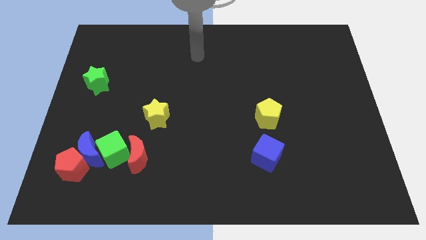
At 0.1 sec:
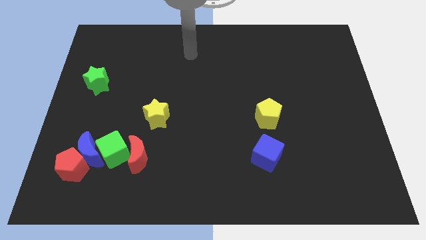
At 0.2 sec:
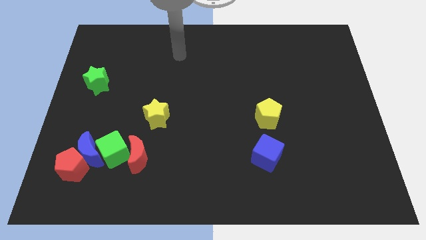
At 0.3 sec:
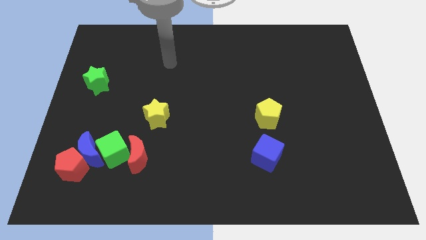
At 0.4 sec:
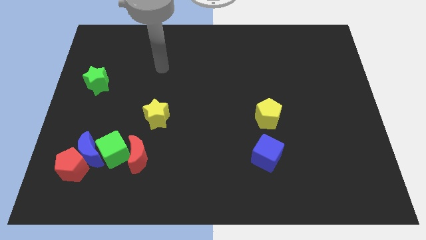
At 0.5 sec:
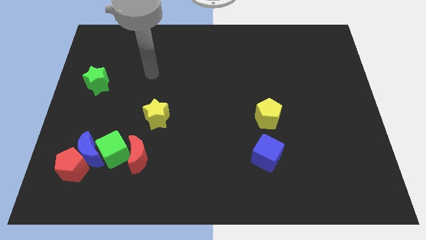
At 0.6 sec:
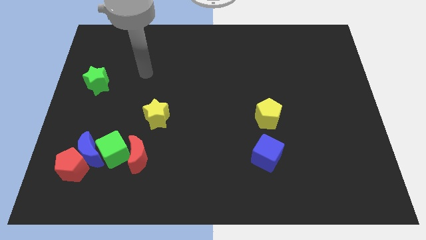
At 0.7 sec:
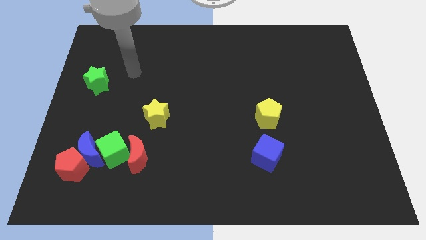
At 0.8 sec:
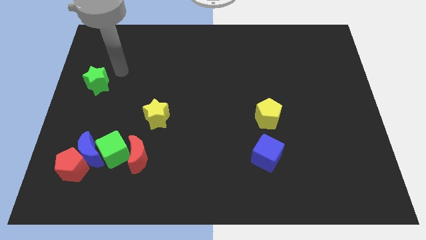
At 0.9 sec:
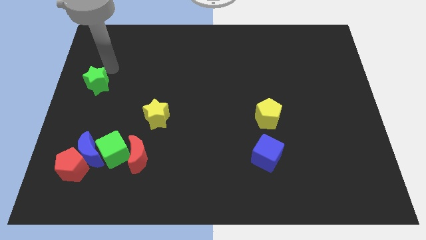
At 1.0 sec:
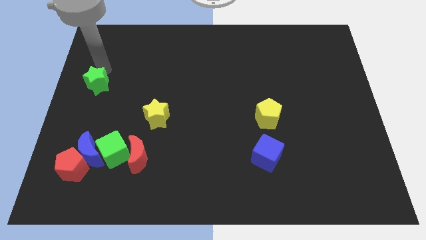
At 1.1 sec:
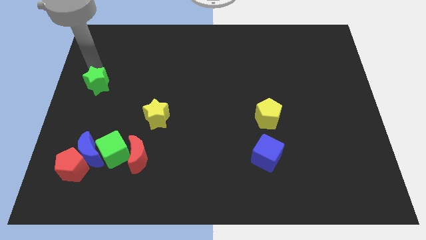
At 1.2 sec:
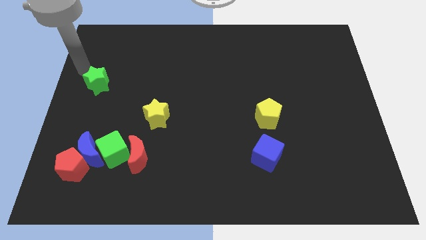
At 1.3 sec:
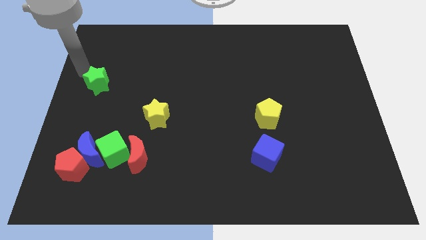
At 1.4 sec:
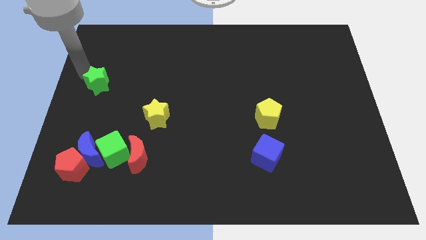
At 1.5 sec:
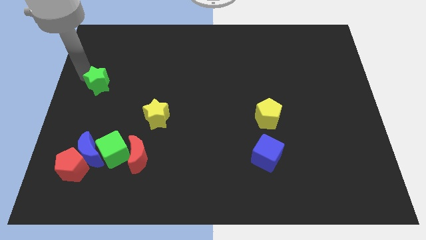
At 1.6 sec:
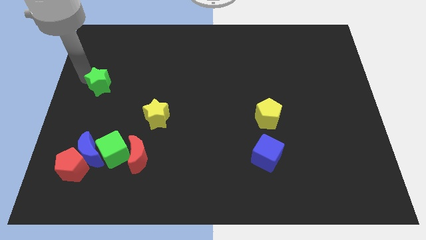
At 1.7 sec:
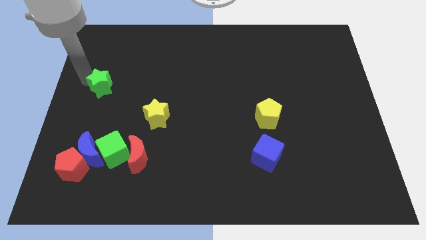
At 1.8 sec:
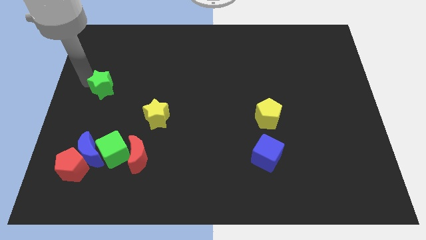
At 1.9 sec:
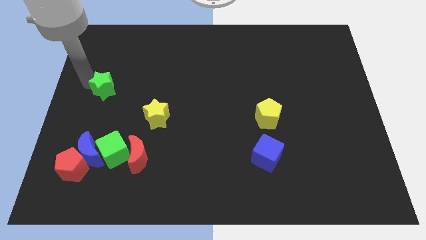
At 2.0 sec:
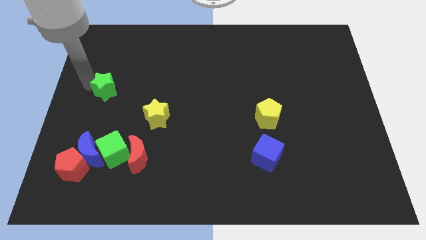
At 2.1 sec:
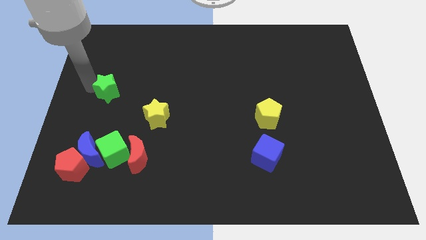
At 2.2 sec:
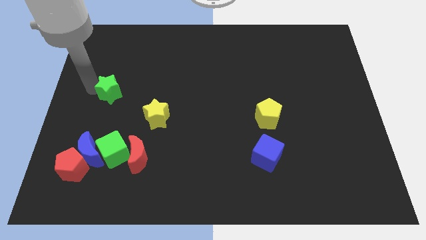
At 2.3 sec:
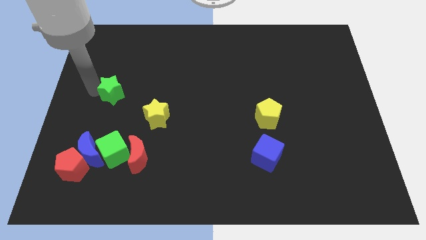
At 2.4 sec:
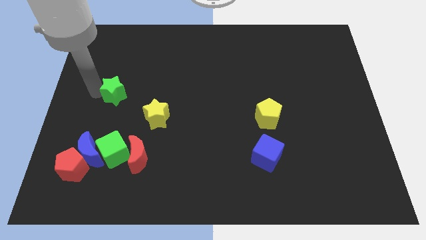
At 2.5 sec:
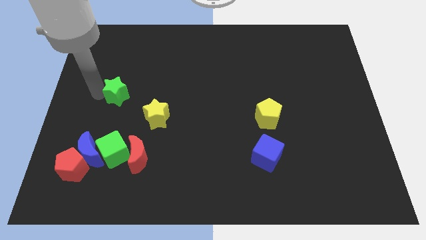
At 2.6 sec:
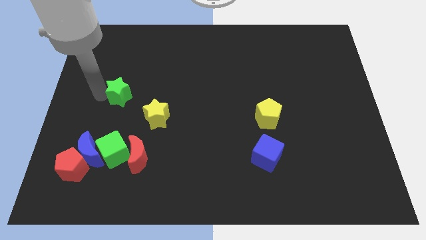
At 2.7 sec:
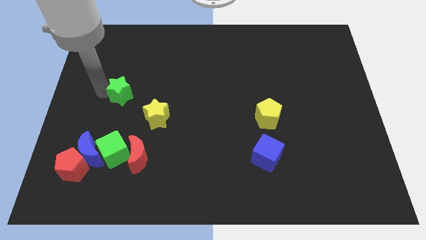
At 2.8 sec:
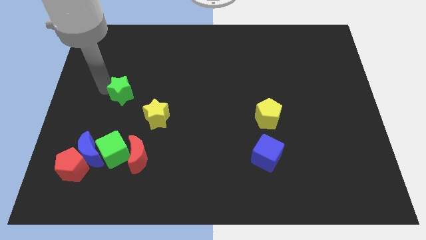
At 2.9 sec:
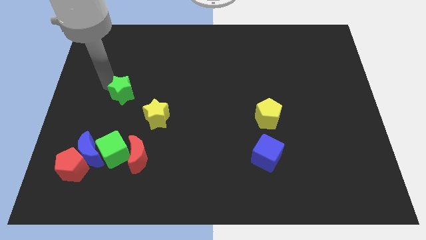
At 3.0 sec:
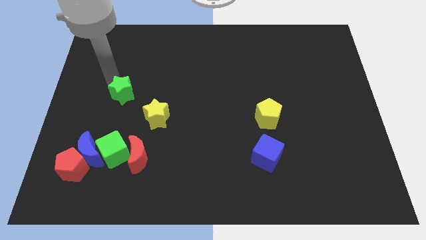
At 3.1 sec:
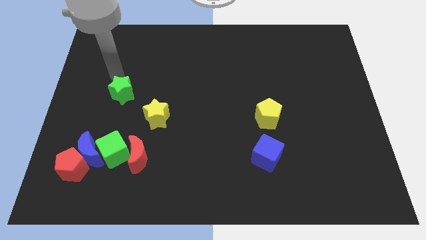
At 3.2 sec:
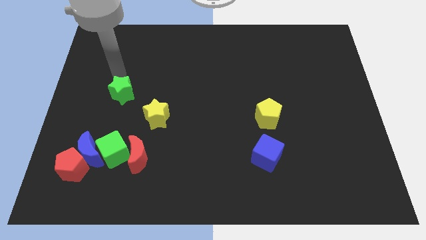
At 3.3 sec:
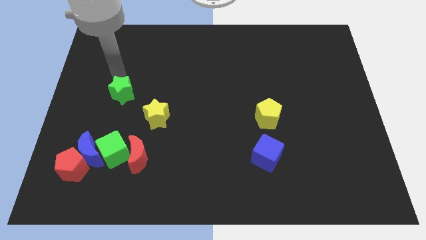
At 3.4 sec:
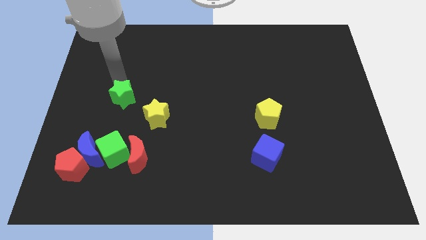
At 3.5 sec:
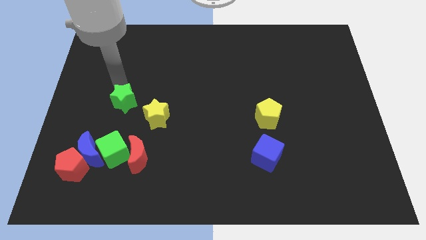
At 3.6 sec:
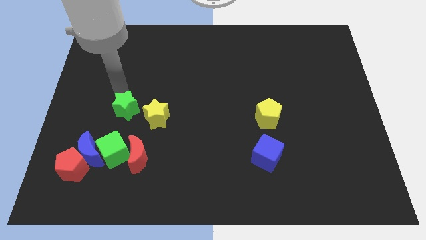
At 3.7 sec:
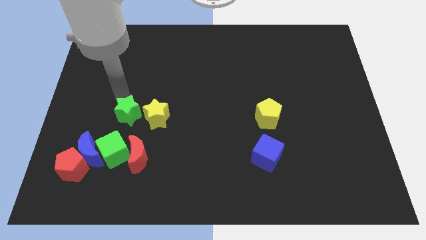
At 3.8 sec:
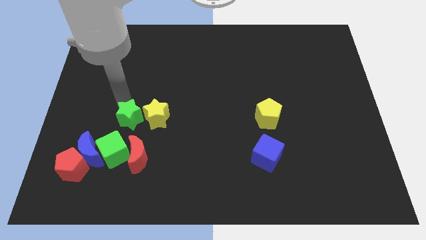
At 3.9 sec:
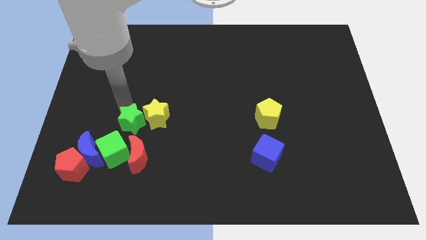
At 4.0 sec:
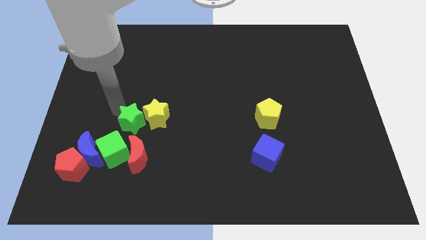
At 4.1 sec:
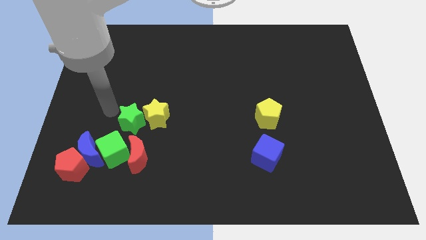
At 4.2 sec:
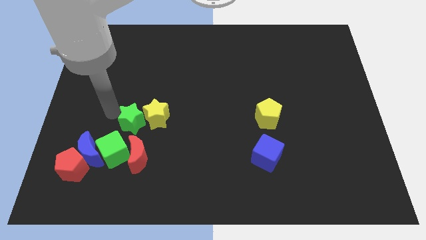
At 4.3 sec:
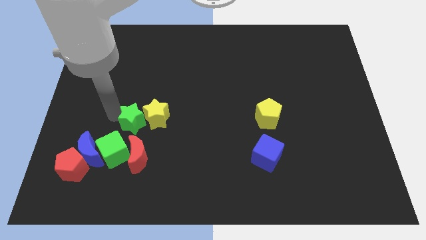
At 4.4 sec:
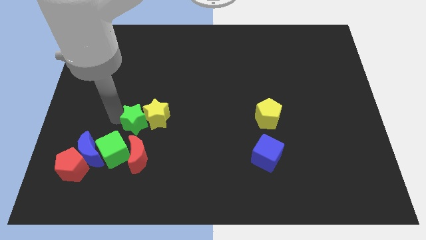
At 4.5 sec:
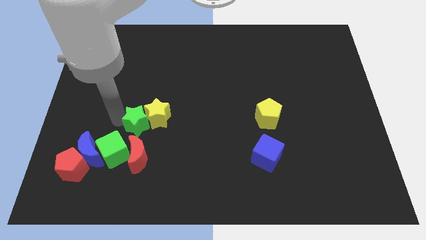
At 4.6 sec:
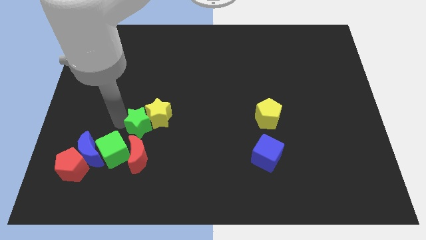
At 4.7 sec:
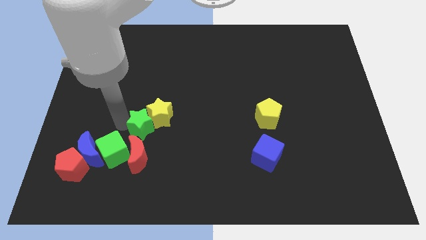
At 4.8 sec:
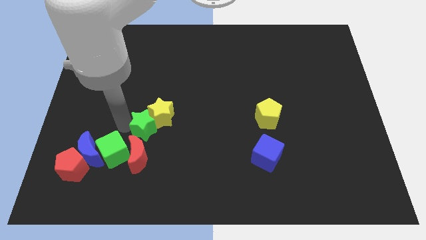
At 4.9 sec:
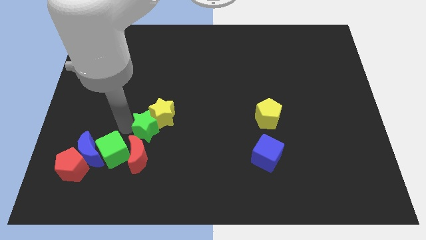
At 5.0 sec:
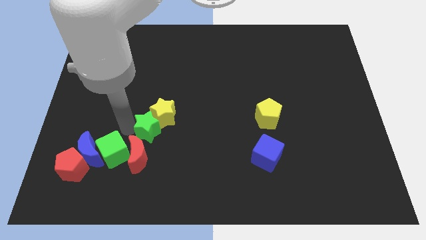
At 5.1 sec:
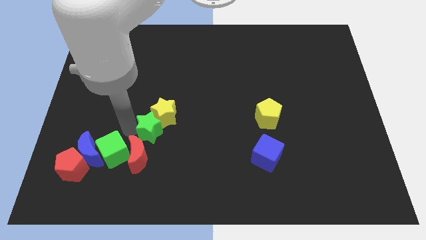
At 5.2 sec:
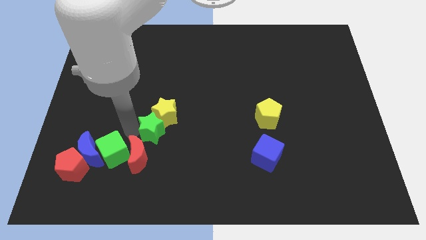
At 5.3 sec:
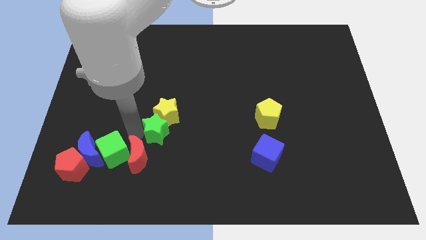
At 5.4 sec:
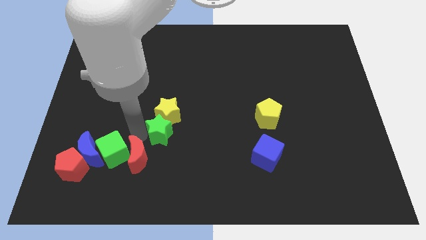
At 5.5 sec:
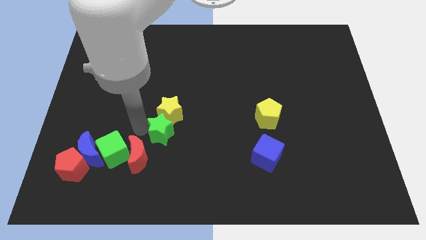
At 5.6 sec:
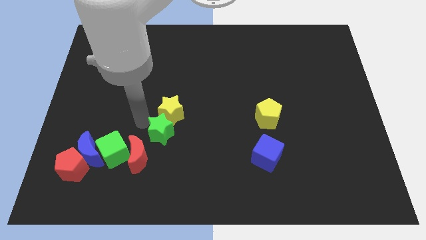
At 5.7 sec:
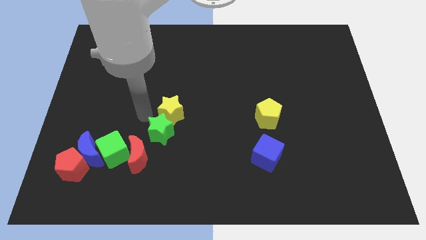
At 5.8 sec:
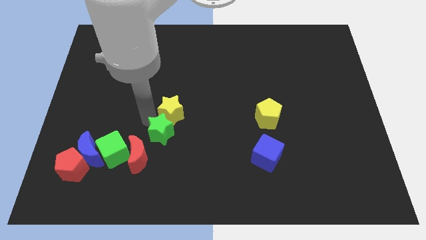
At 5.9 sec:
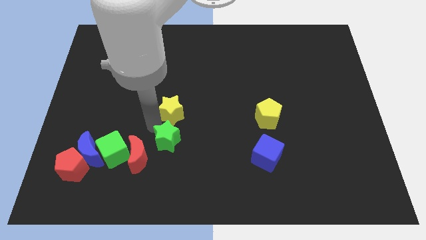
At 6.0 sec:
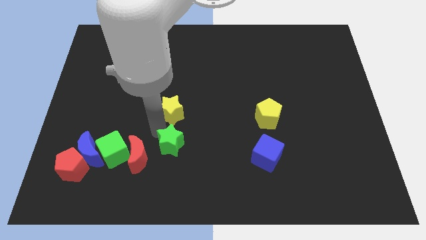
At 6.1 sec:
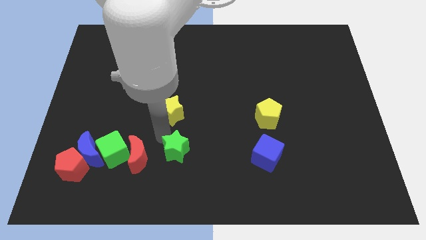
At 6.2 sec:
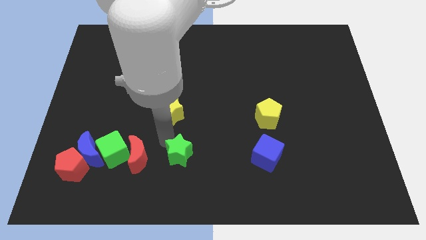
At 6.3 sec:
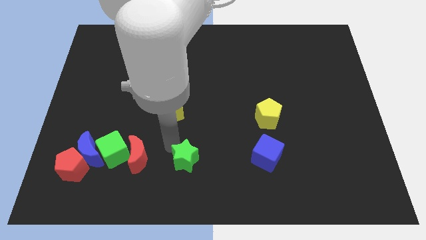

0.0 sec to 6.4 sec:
put the green star to the bottom side
